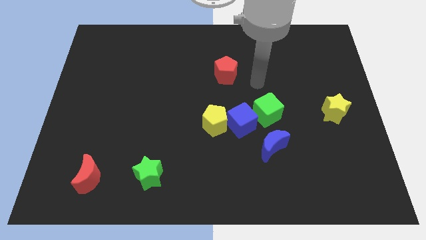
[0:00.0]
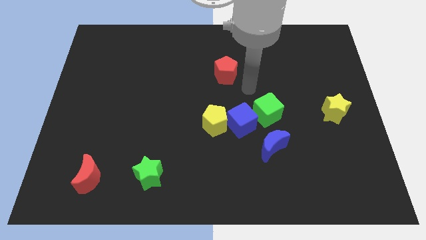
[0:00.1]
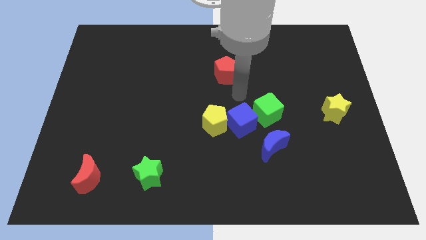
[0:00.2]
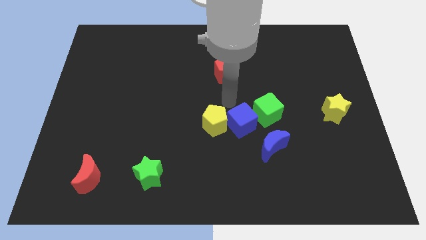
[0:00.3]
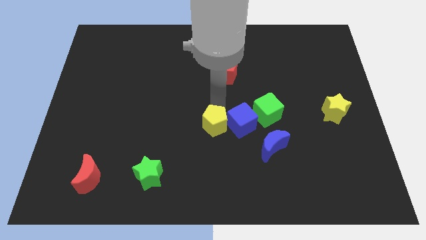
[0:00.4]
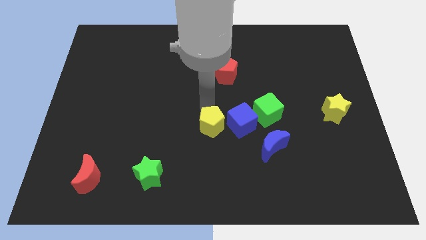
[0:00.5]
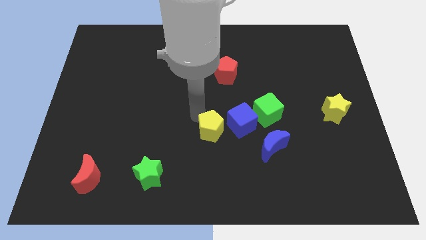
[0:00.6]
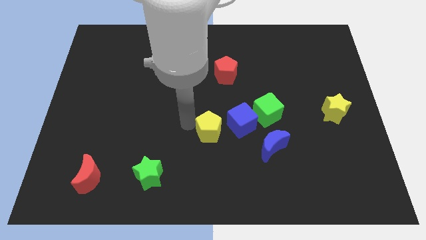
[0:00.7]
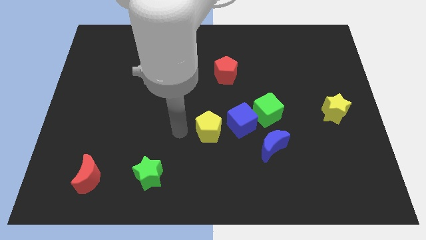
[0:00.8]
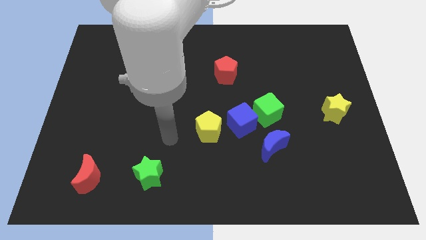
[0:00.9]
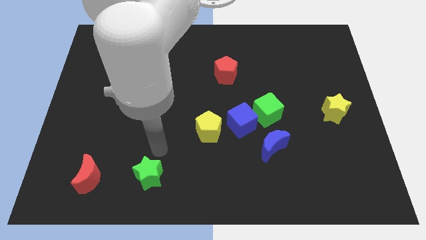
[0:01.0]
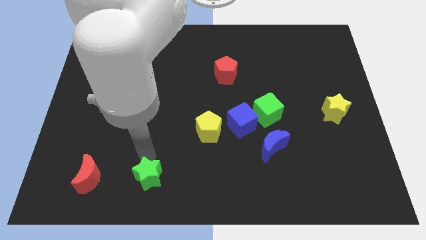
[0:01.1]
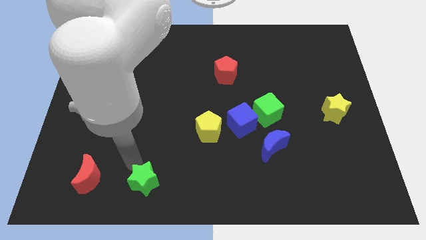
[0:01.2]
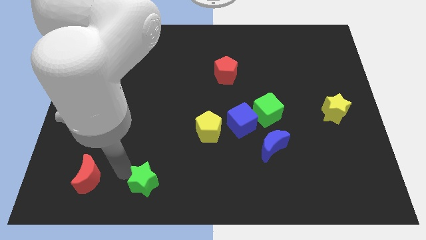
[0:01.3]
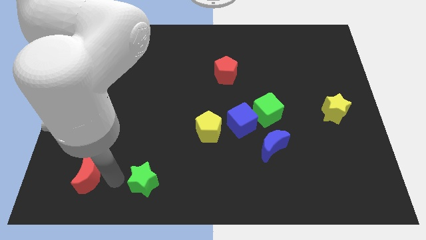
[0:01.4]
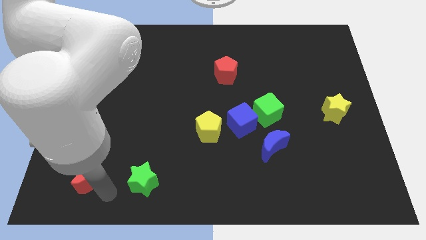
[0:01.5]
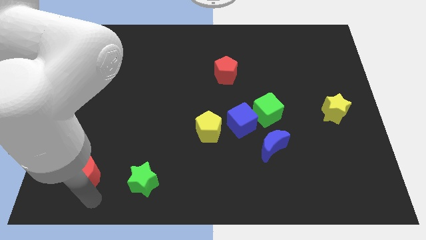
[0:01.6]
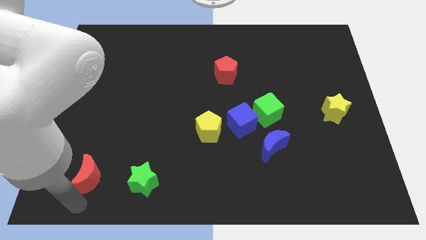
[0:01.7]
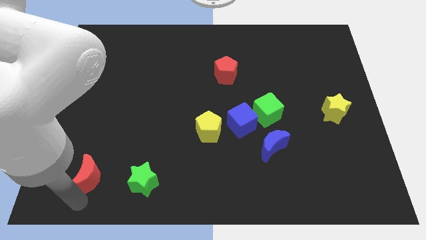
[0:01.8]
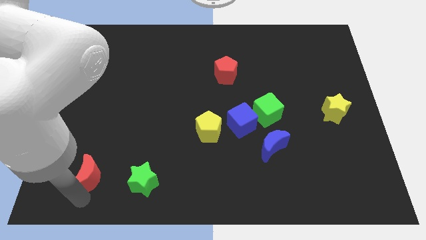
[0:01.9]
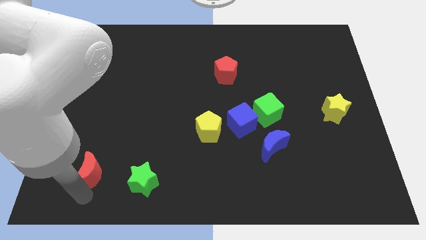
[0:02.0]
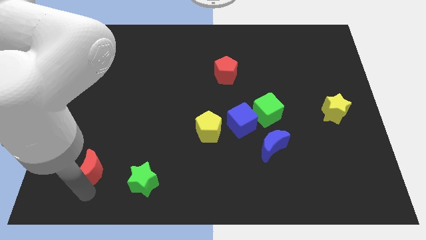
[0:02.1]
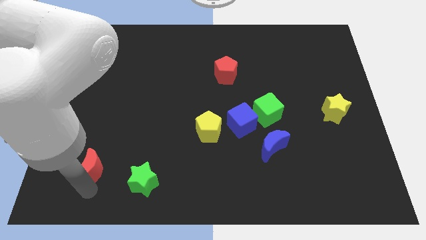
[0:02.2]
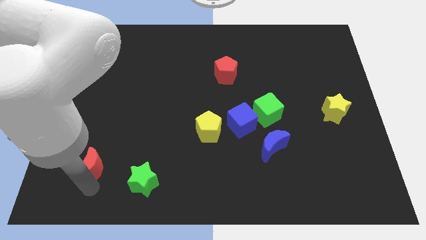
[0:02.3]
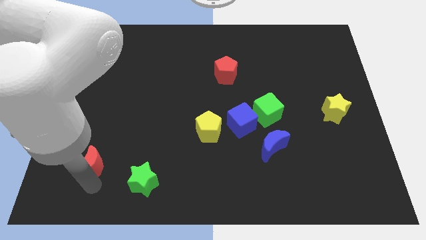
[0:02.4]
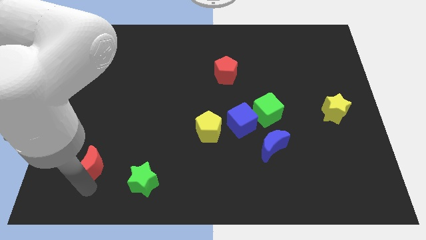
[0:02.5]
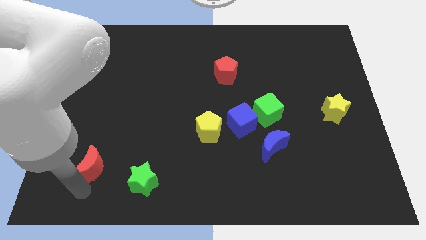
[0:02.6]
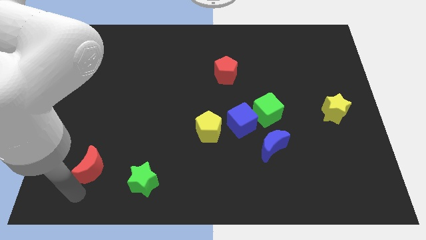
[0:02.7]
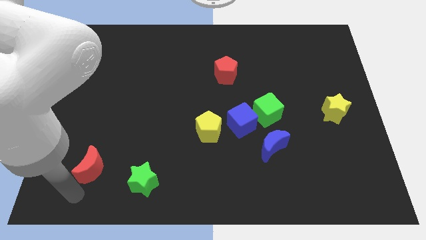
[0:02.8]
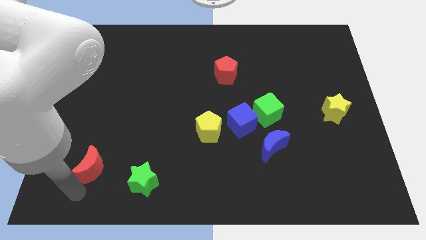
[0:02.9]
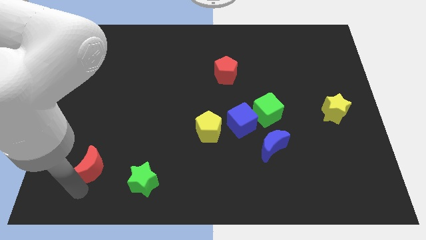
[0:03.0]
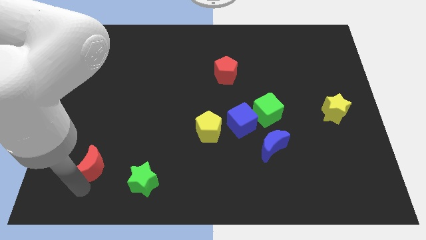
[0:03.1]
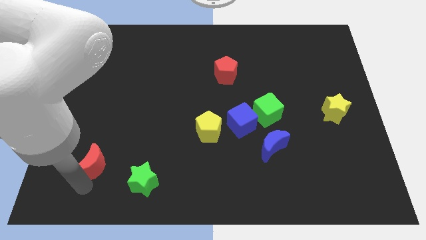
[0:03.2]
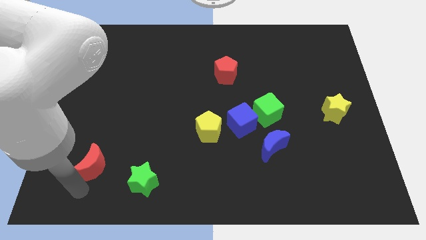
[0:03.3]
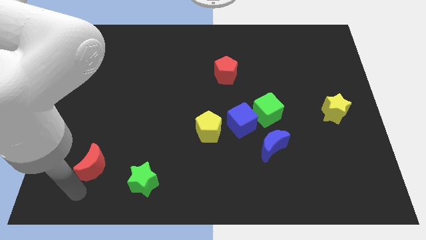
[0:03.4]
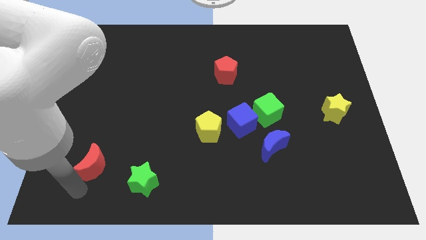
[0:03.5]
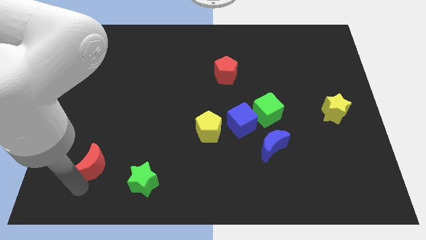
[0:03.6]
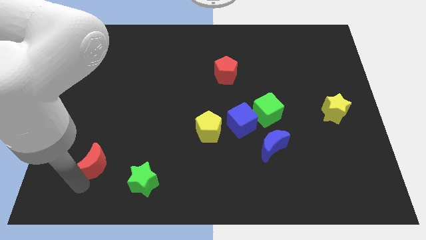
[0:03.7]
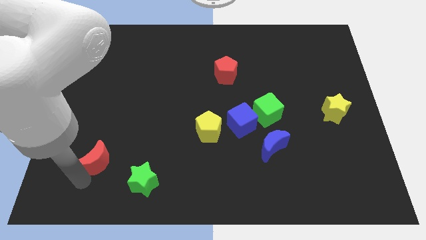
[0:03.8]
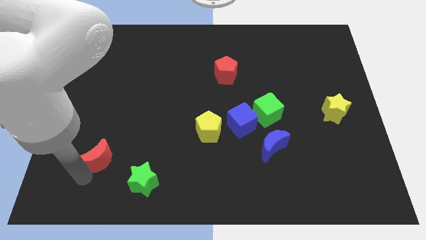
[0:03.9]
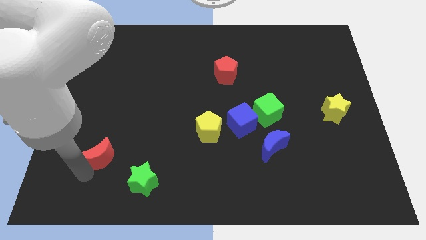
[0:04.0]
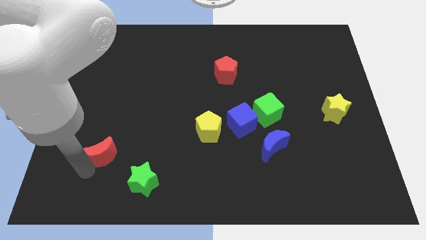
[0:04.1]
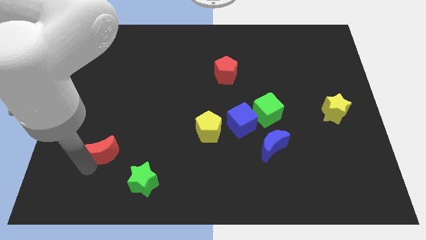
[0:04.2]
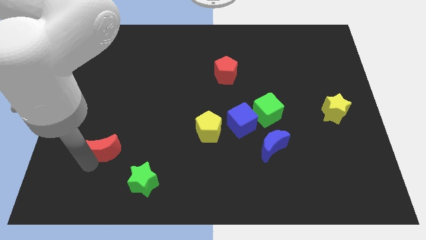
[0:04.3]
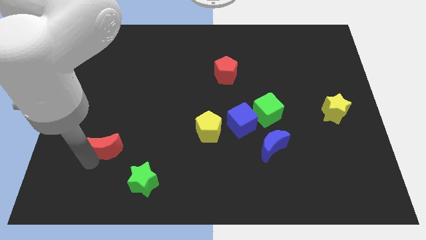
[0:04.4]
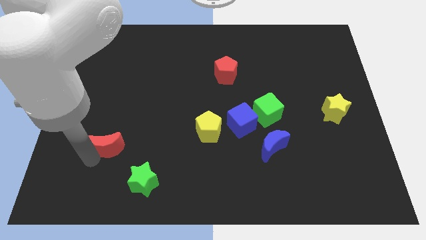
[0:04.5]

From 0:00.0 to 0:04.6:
push the red moon up a bit

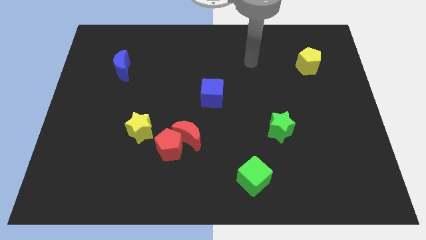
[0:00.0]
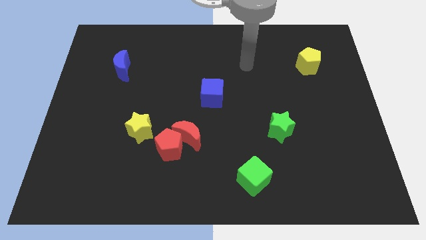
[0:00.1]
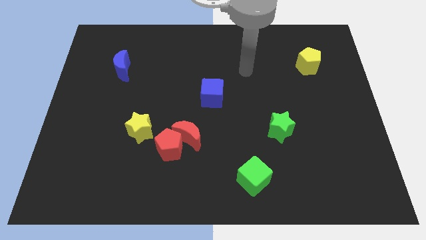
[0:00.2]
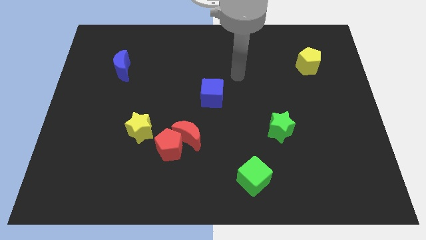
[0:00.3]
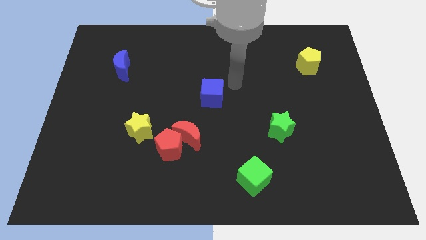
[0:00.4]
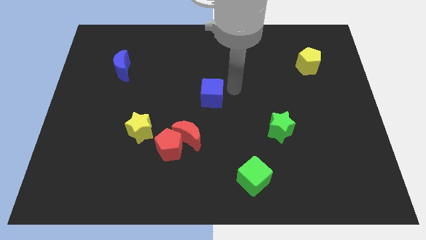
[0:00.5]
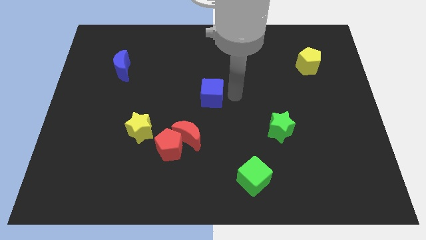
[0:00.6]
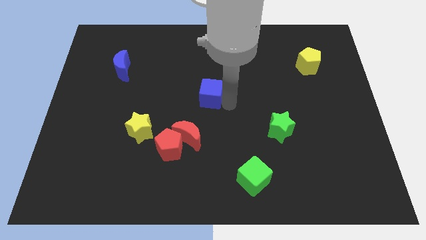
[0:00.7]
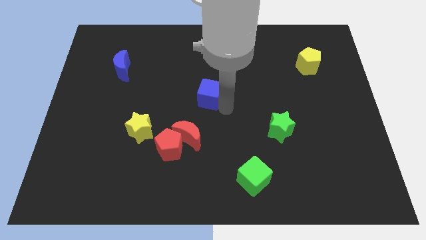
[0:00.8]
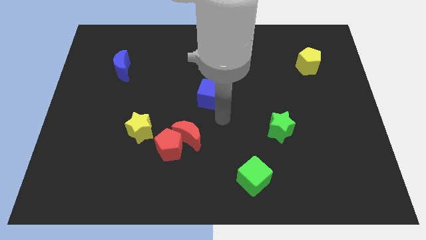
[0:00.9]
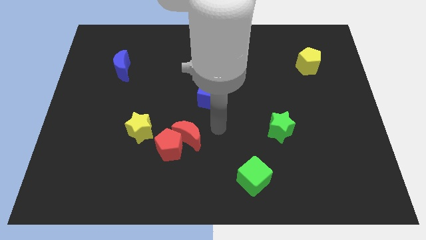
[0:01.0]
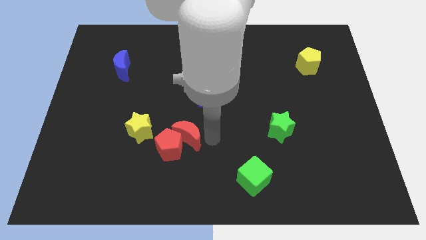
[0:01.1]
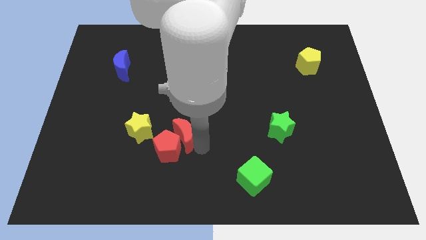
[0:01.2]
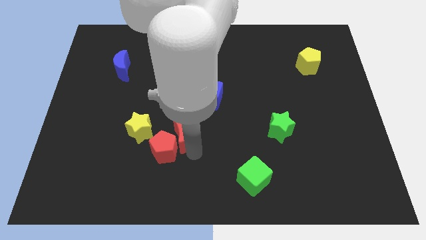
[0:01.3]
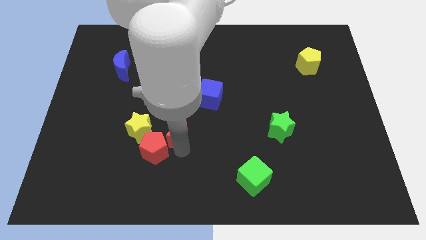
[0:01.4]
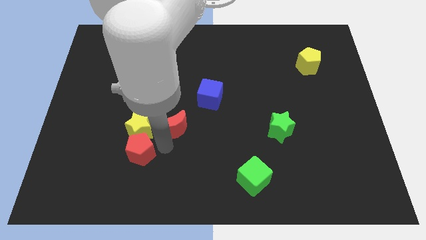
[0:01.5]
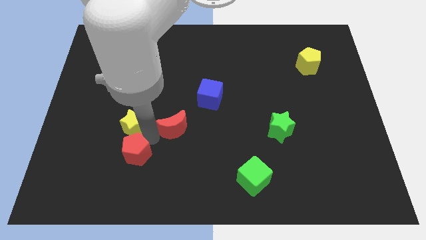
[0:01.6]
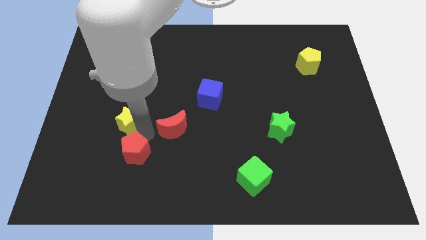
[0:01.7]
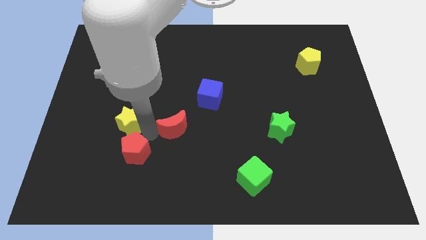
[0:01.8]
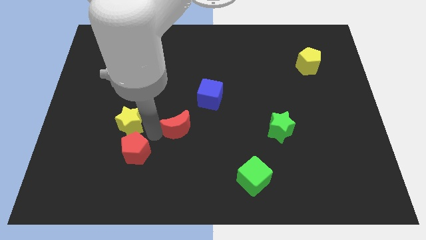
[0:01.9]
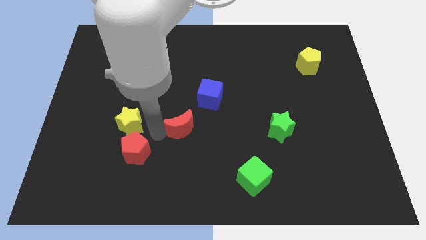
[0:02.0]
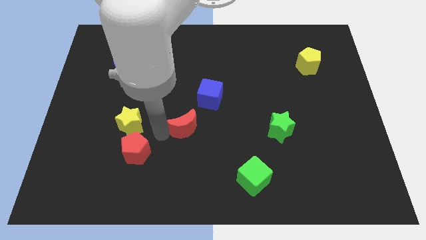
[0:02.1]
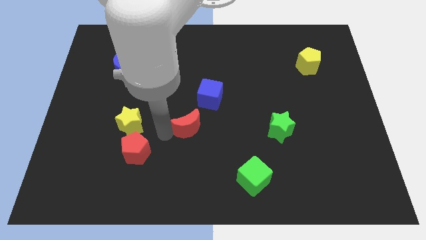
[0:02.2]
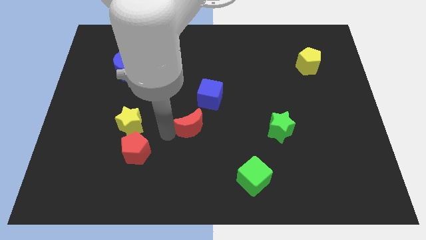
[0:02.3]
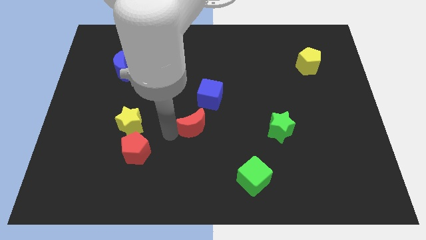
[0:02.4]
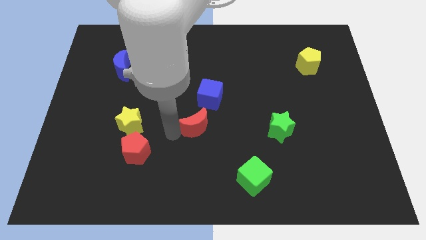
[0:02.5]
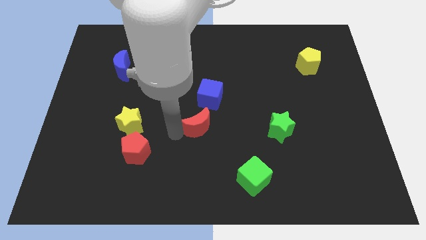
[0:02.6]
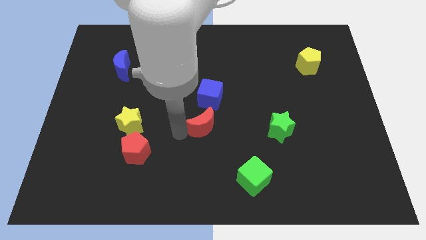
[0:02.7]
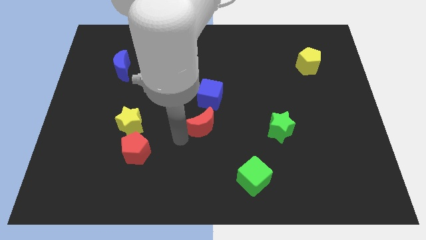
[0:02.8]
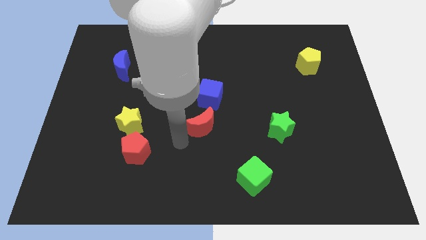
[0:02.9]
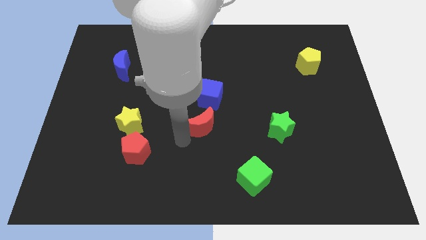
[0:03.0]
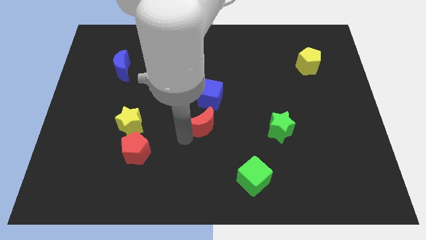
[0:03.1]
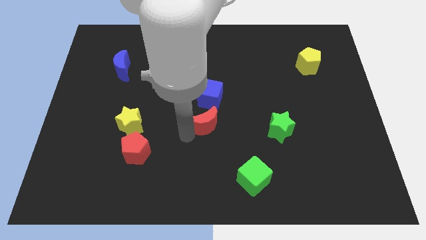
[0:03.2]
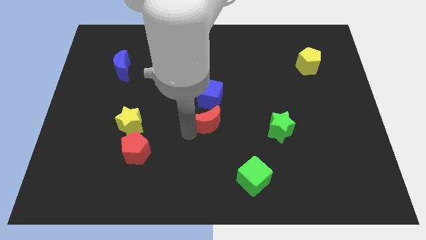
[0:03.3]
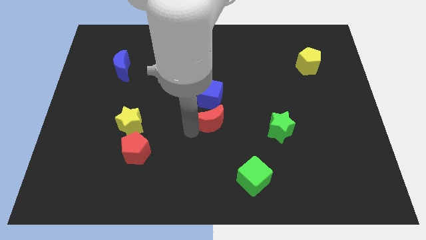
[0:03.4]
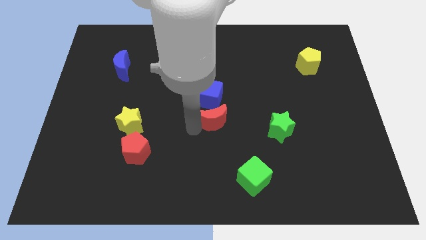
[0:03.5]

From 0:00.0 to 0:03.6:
push the red moon a bit diagonally upwards and to the right

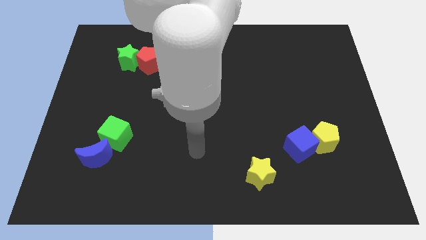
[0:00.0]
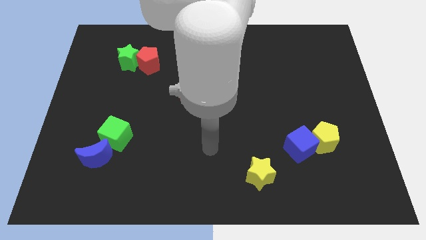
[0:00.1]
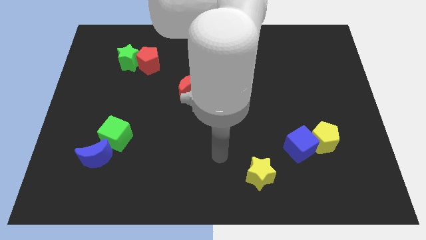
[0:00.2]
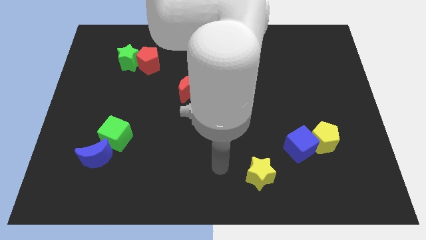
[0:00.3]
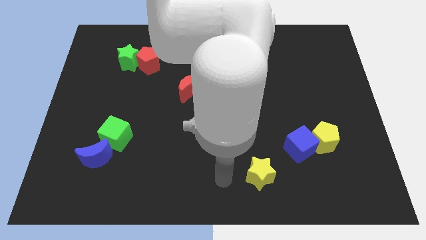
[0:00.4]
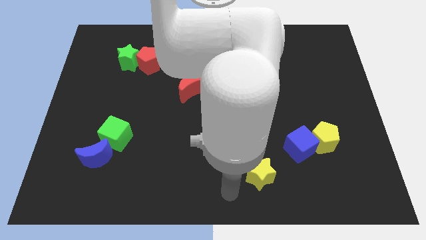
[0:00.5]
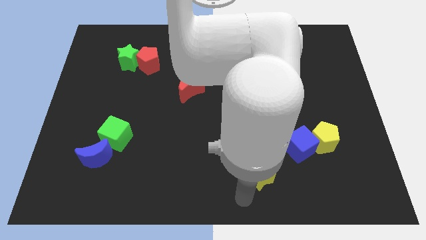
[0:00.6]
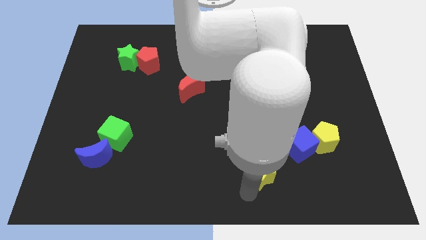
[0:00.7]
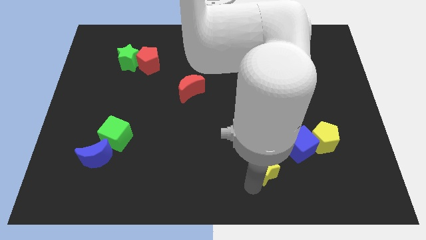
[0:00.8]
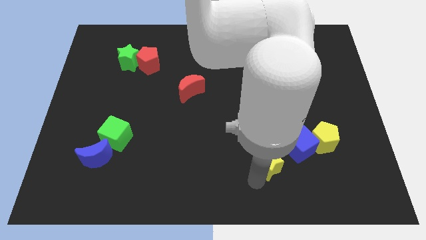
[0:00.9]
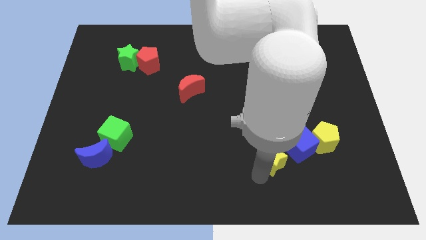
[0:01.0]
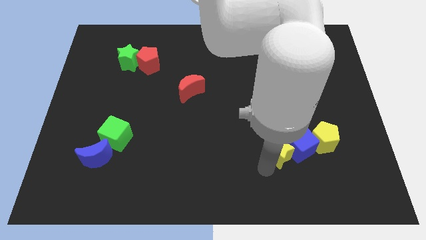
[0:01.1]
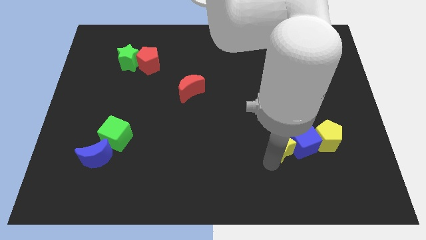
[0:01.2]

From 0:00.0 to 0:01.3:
slightly move the yellow star up and then right
